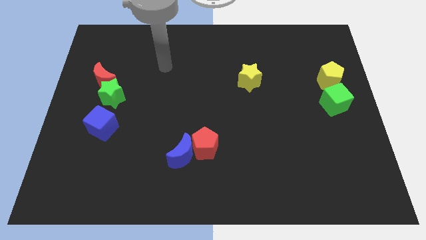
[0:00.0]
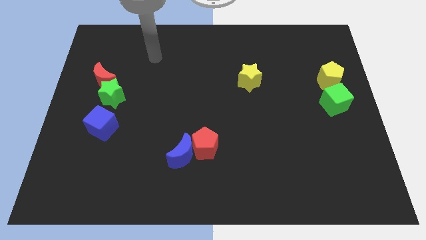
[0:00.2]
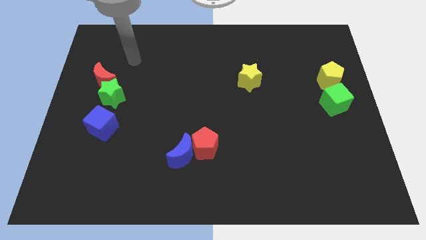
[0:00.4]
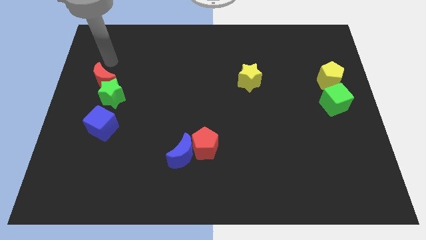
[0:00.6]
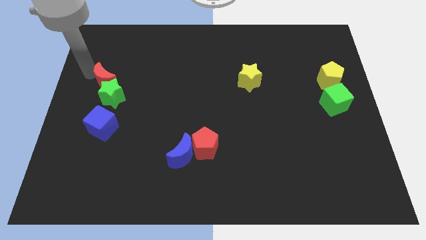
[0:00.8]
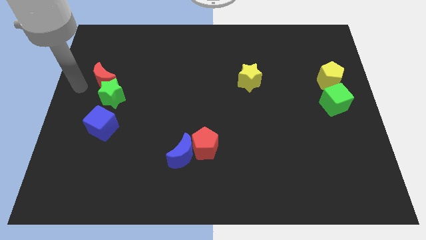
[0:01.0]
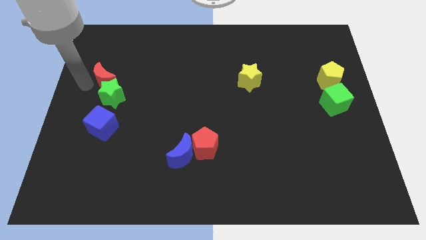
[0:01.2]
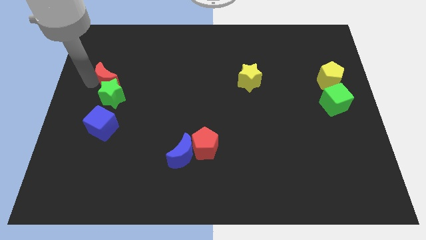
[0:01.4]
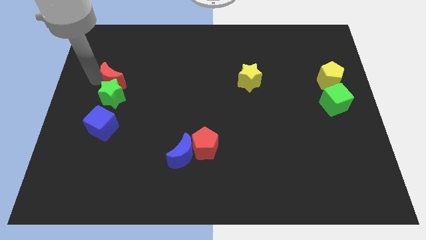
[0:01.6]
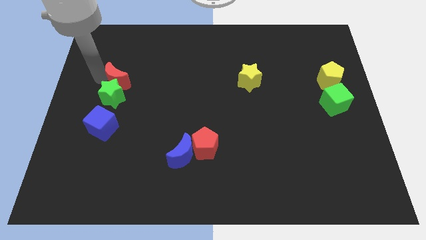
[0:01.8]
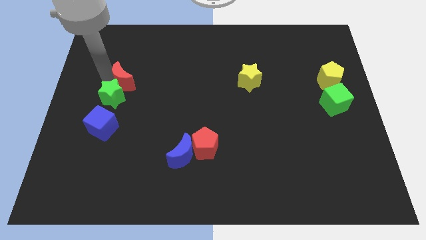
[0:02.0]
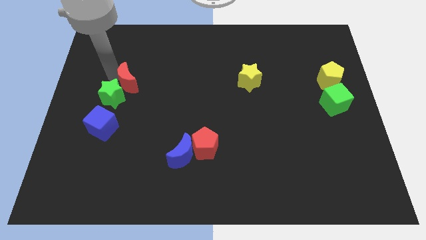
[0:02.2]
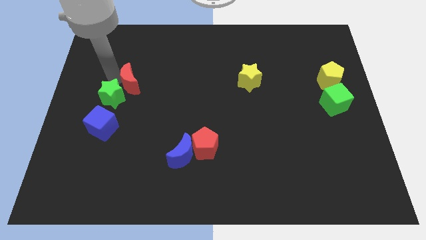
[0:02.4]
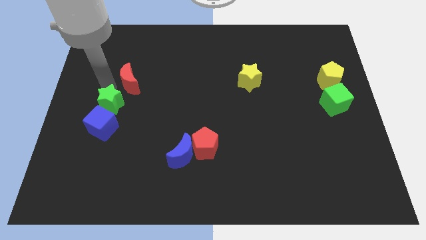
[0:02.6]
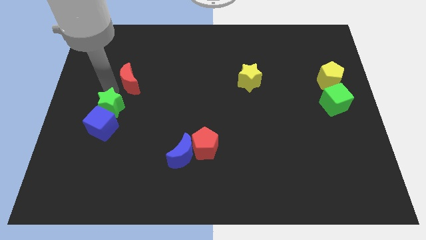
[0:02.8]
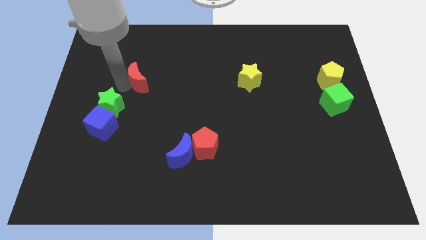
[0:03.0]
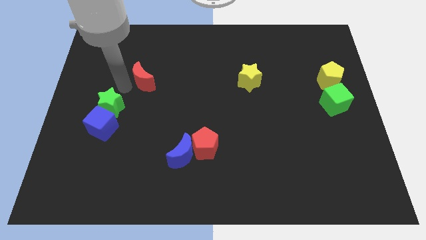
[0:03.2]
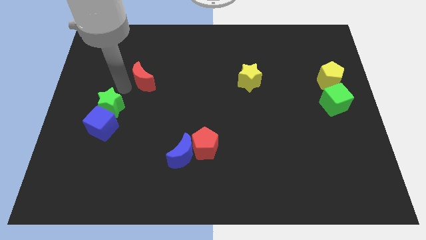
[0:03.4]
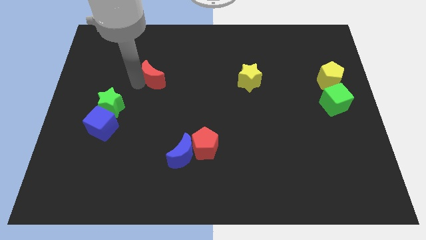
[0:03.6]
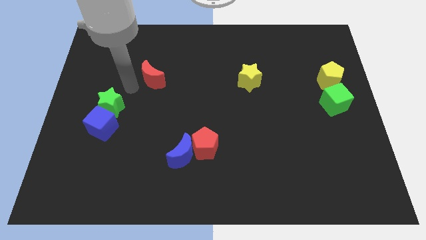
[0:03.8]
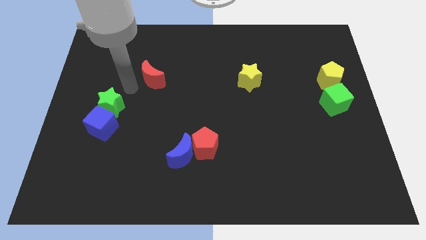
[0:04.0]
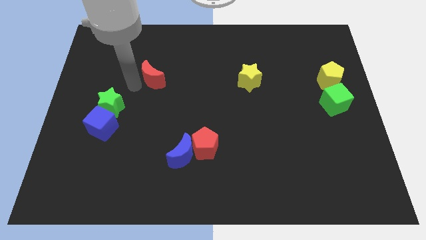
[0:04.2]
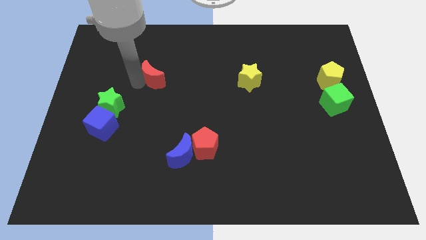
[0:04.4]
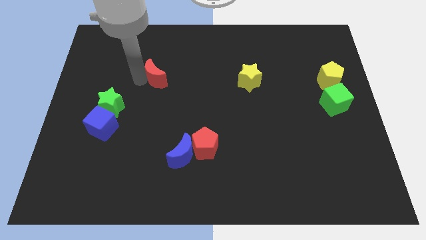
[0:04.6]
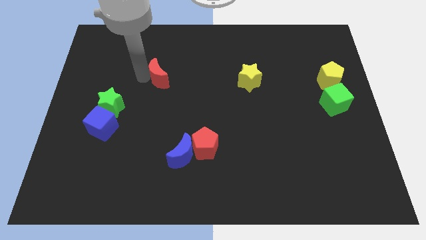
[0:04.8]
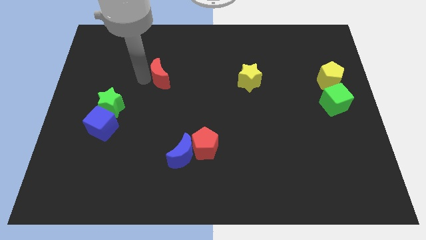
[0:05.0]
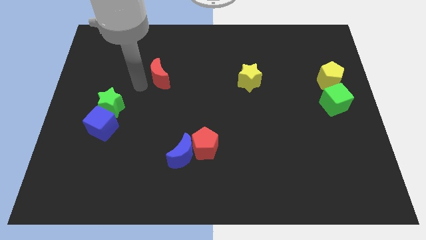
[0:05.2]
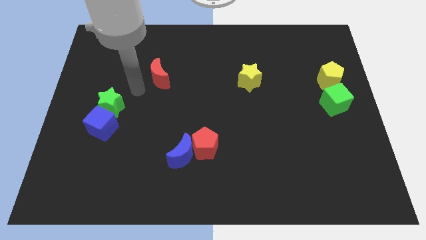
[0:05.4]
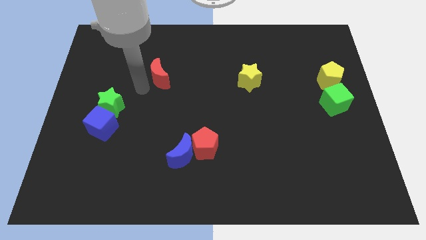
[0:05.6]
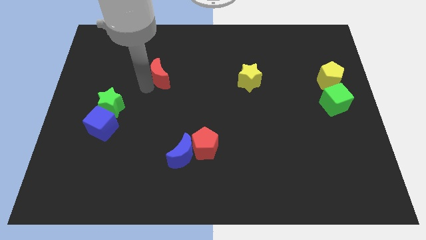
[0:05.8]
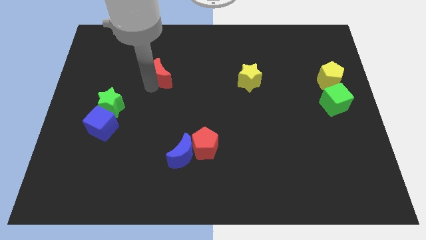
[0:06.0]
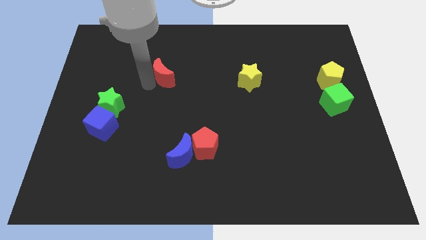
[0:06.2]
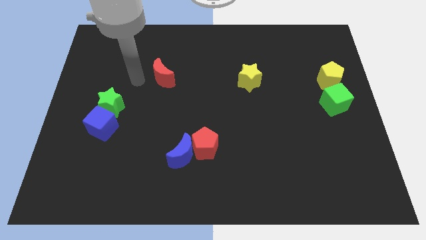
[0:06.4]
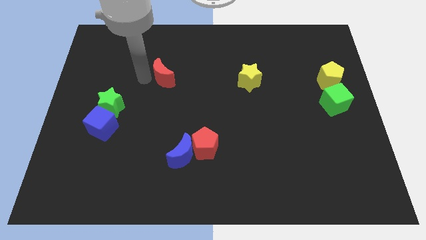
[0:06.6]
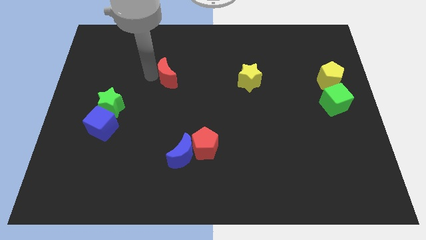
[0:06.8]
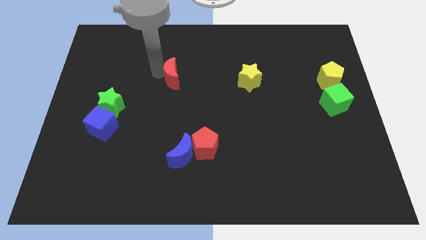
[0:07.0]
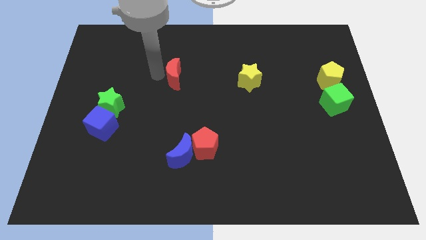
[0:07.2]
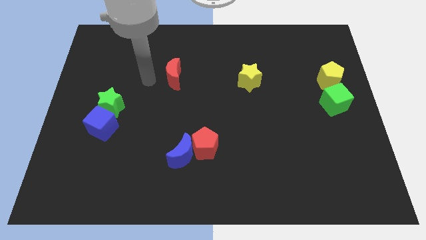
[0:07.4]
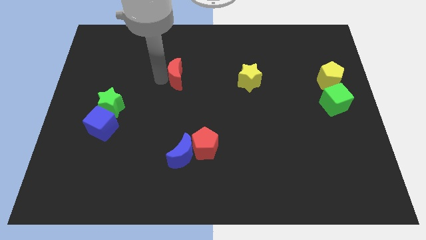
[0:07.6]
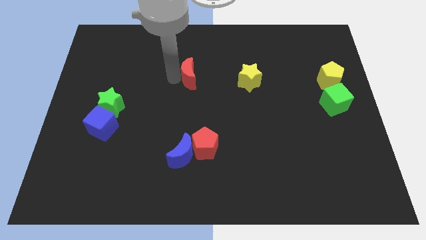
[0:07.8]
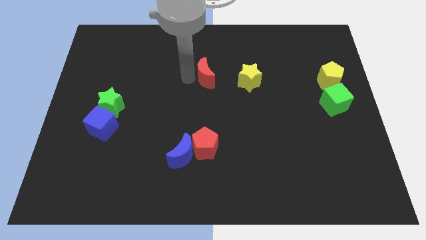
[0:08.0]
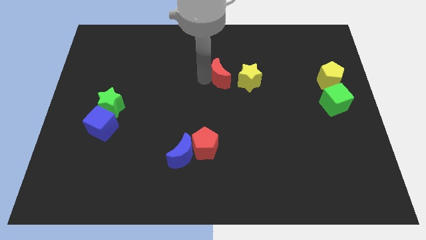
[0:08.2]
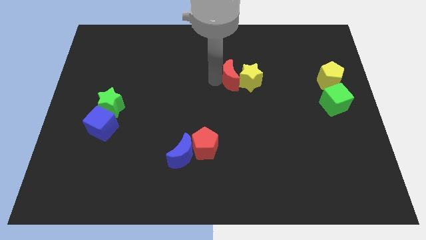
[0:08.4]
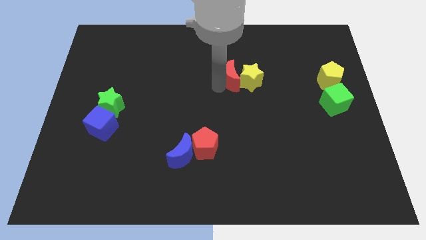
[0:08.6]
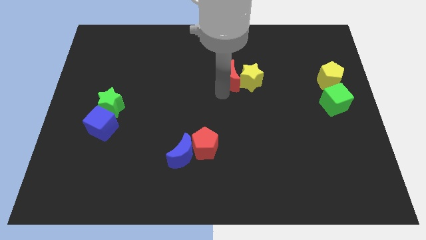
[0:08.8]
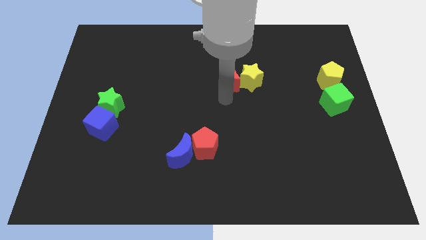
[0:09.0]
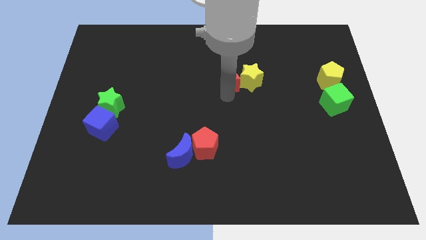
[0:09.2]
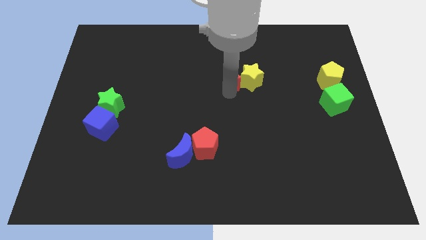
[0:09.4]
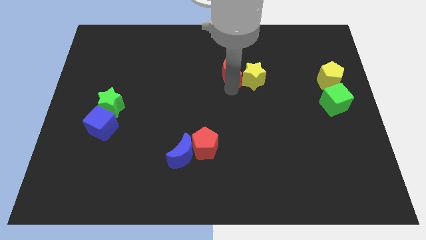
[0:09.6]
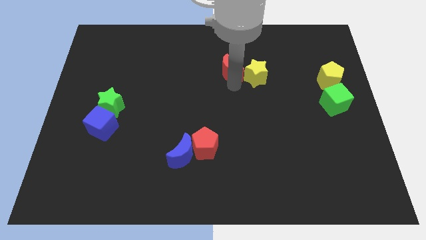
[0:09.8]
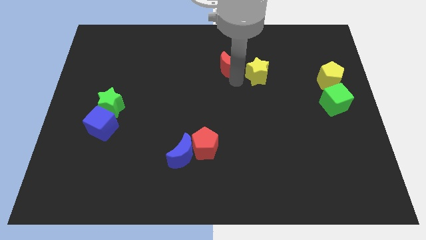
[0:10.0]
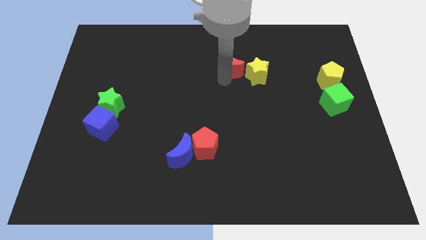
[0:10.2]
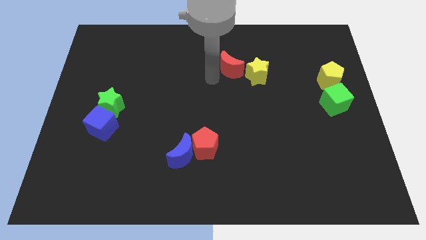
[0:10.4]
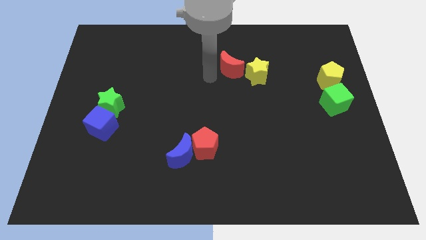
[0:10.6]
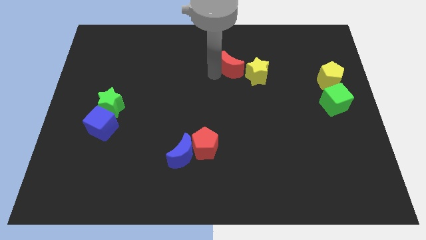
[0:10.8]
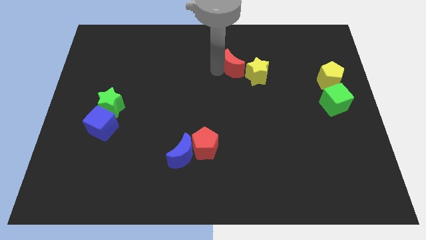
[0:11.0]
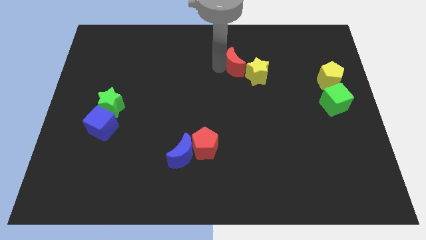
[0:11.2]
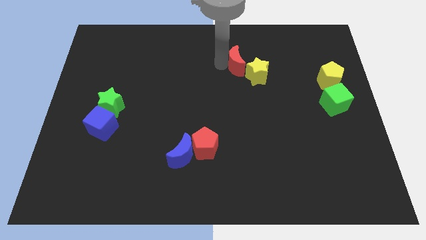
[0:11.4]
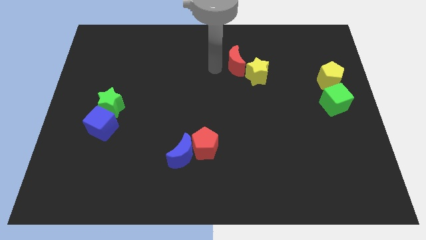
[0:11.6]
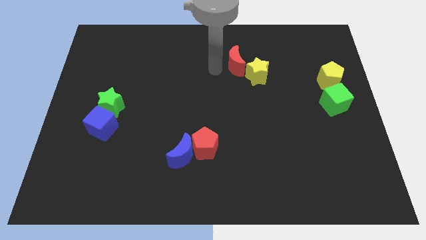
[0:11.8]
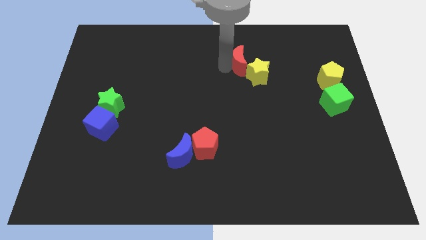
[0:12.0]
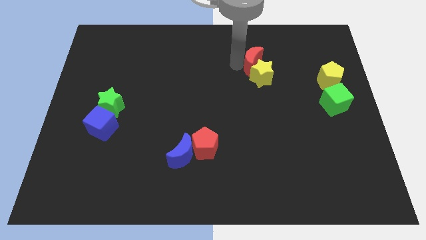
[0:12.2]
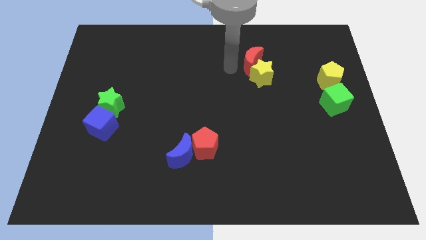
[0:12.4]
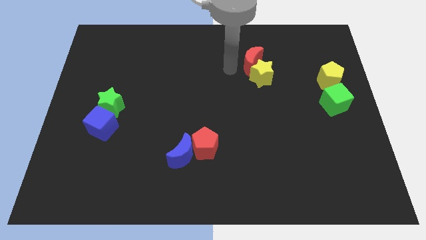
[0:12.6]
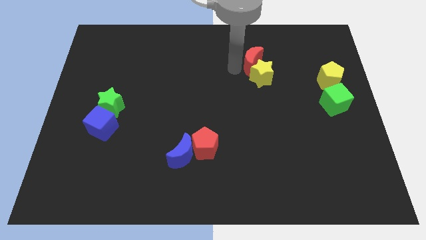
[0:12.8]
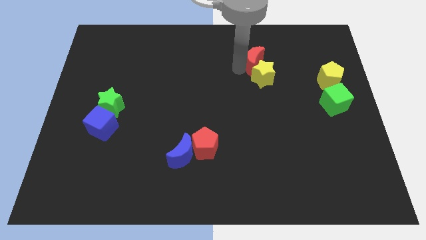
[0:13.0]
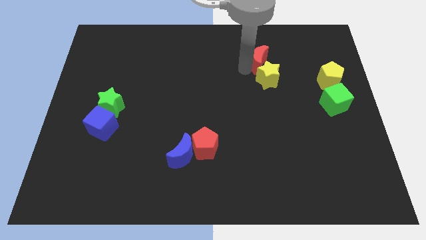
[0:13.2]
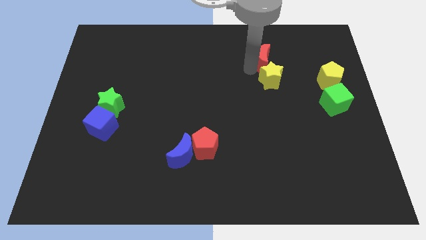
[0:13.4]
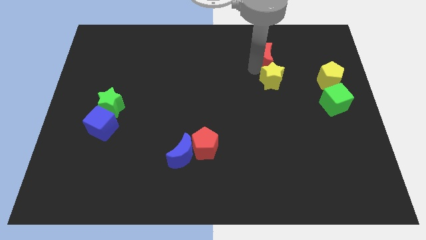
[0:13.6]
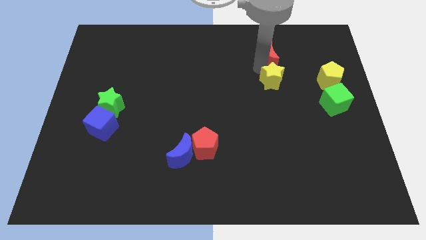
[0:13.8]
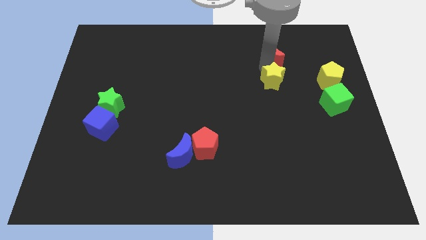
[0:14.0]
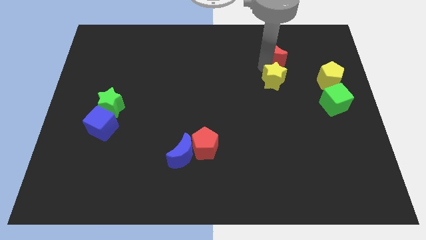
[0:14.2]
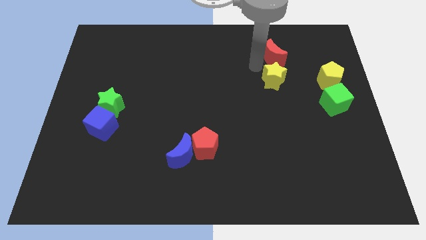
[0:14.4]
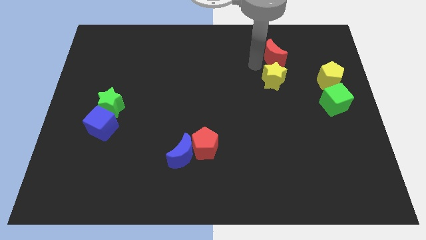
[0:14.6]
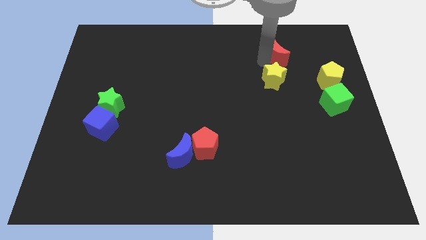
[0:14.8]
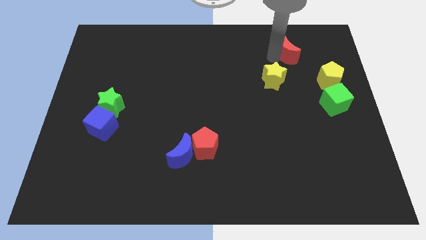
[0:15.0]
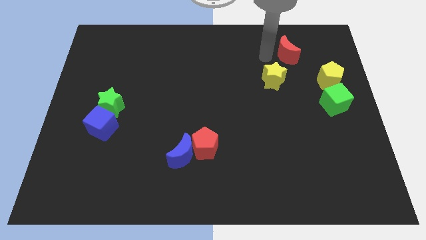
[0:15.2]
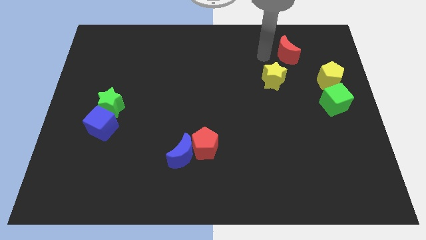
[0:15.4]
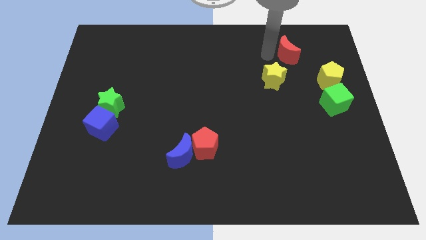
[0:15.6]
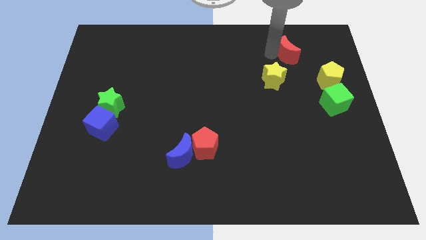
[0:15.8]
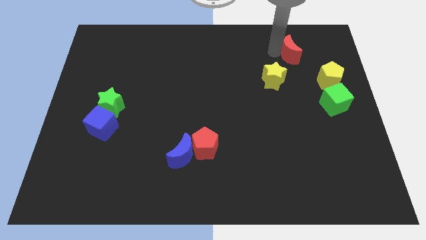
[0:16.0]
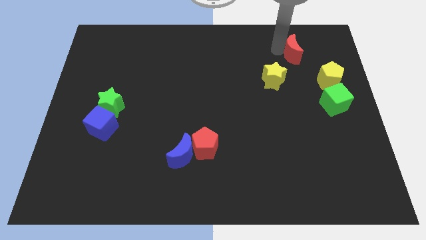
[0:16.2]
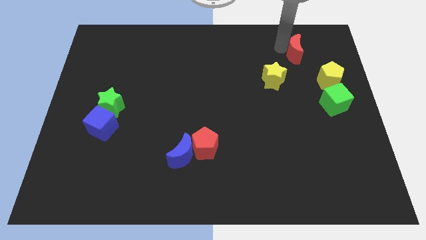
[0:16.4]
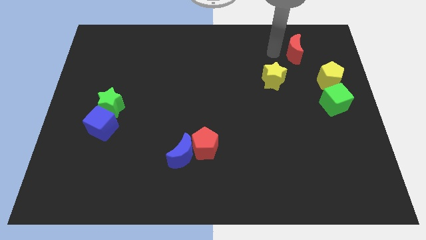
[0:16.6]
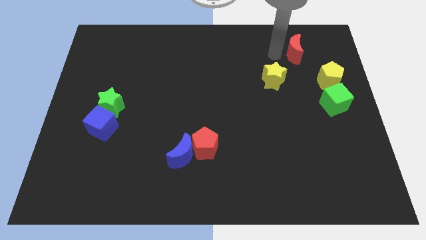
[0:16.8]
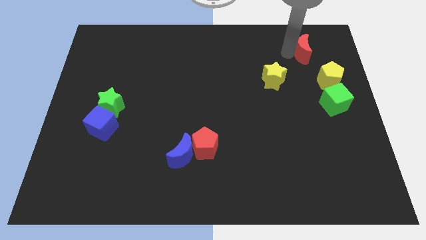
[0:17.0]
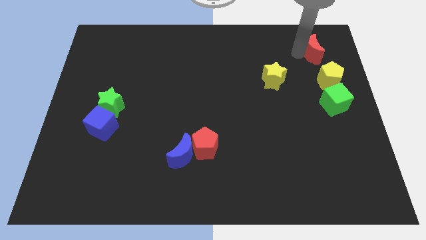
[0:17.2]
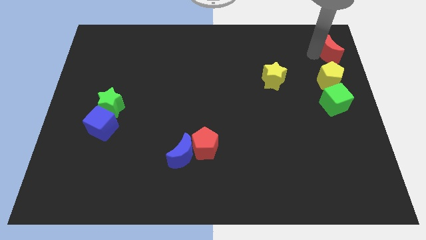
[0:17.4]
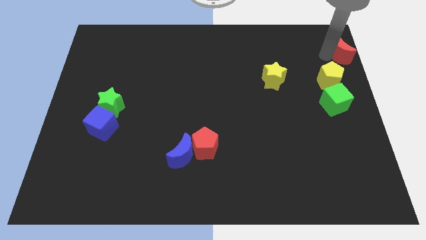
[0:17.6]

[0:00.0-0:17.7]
move the red moon to the top right of the board
